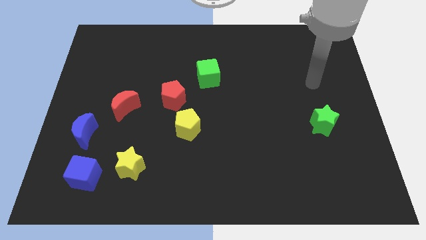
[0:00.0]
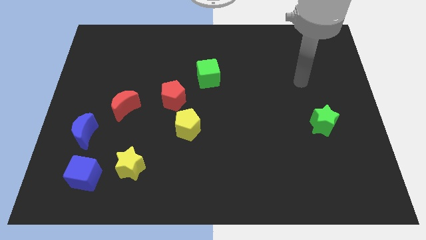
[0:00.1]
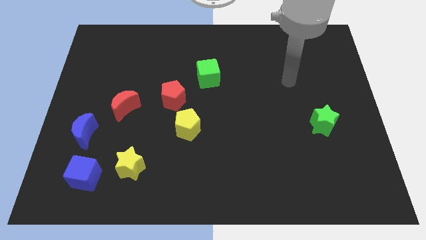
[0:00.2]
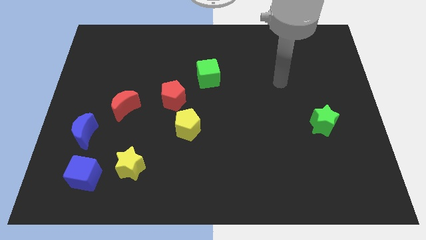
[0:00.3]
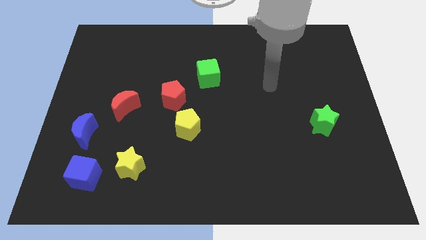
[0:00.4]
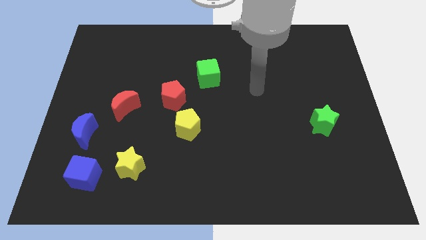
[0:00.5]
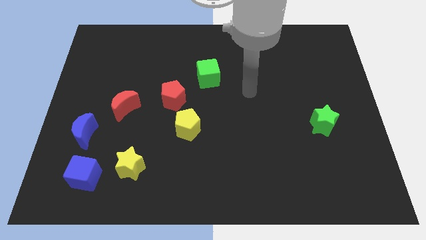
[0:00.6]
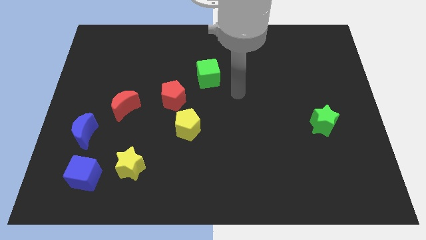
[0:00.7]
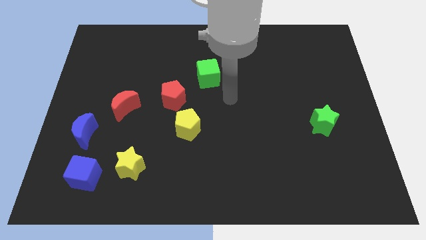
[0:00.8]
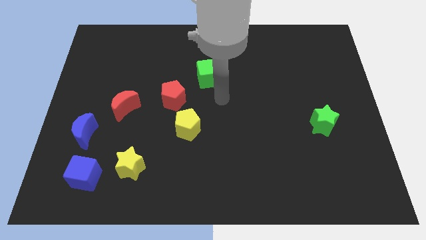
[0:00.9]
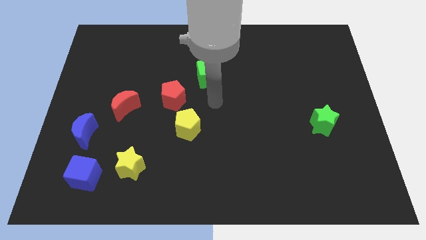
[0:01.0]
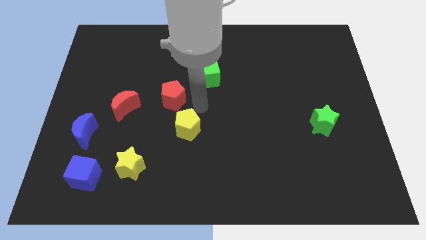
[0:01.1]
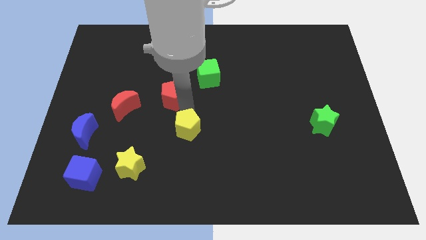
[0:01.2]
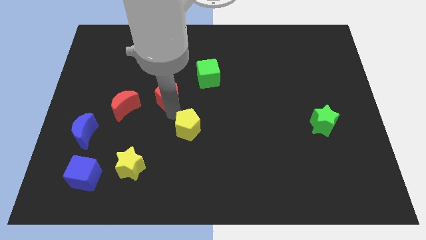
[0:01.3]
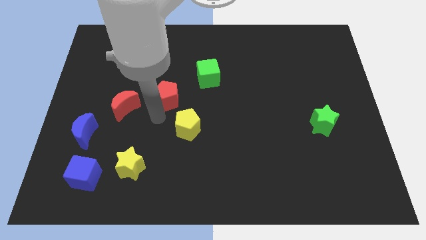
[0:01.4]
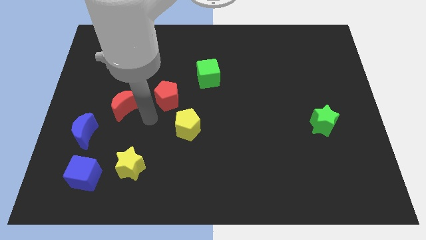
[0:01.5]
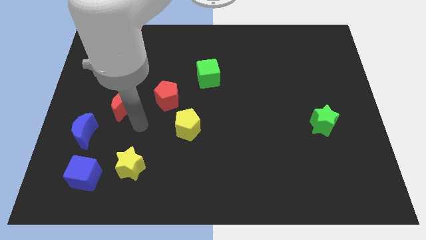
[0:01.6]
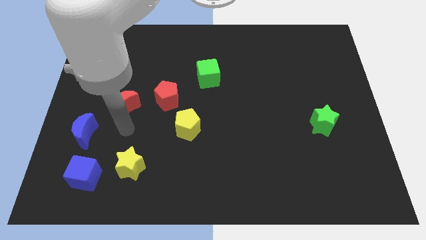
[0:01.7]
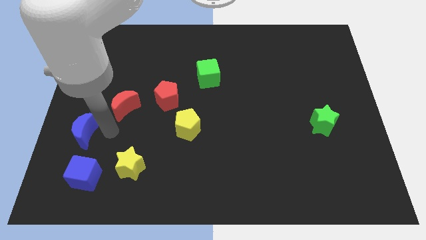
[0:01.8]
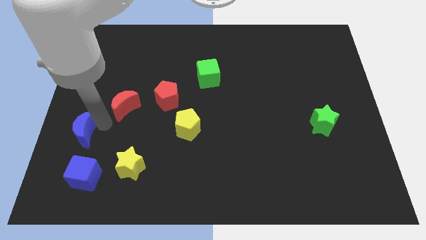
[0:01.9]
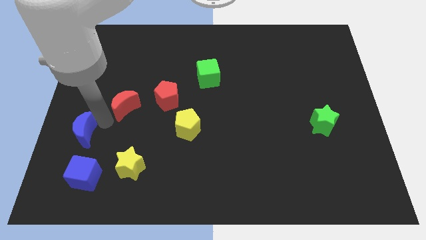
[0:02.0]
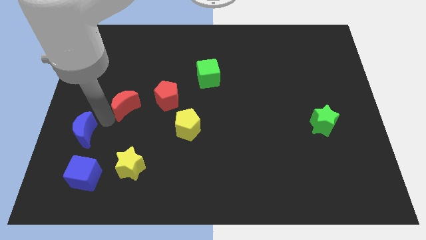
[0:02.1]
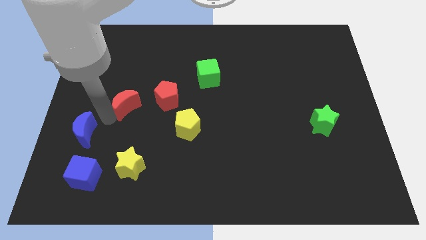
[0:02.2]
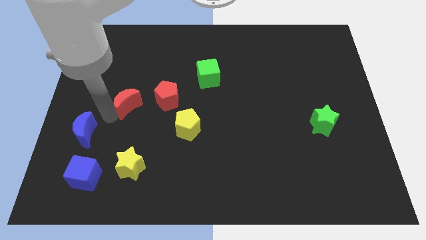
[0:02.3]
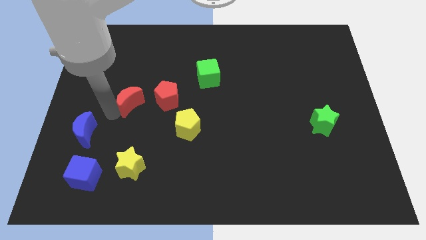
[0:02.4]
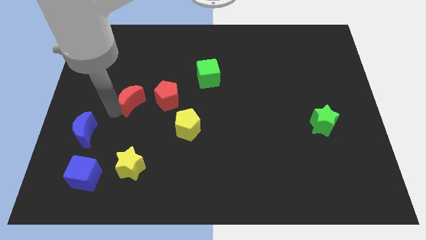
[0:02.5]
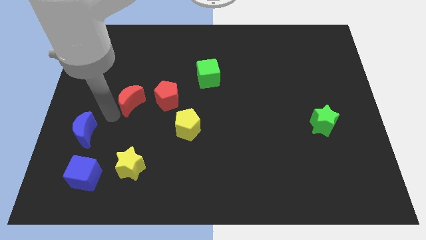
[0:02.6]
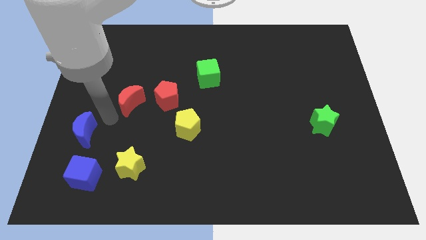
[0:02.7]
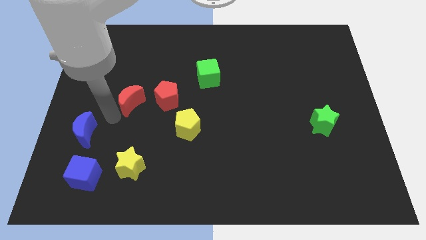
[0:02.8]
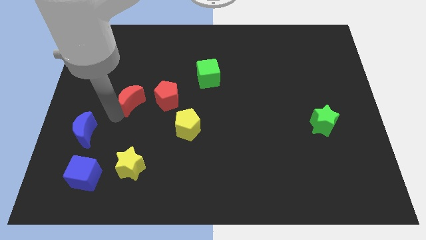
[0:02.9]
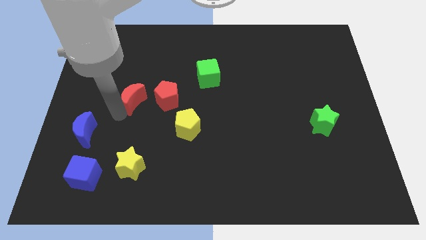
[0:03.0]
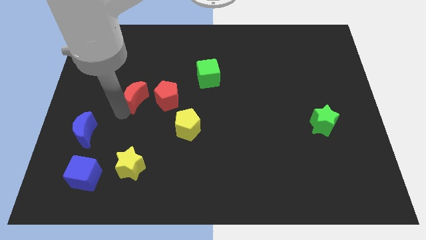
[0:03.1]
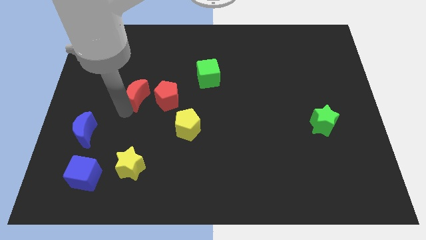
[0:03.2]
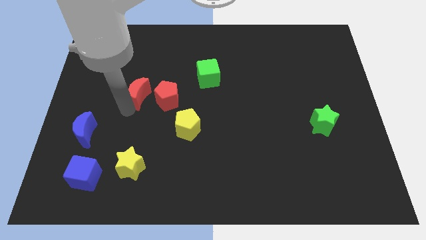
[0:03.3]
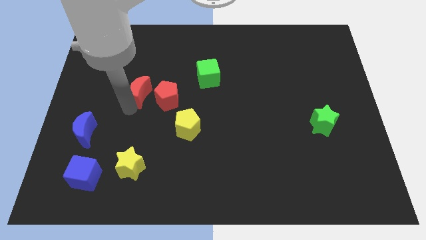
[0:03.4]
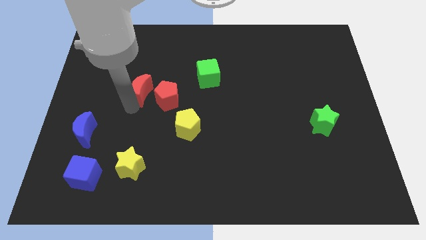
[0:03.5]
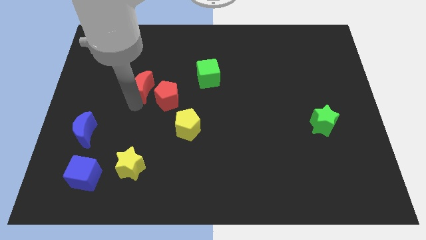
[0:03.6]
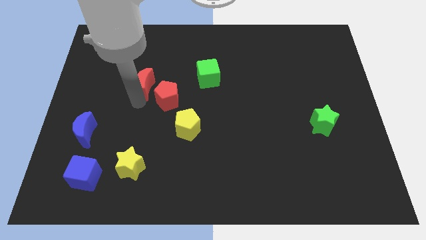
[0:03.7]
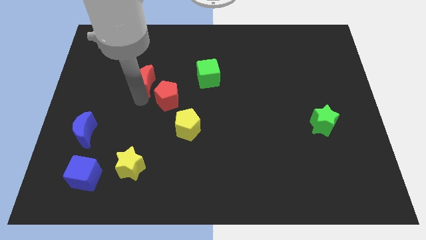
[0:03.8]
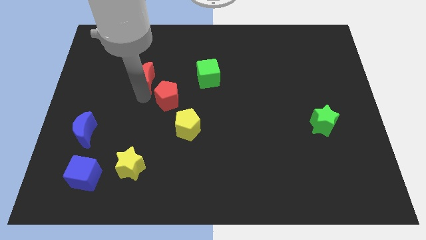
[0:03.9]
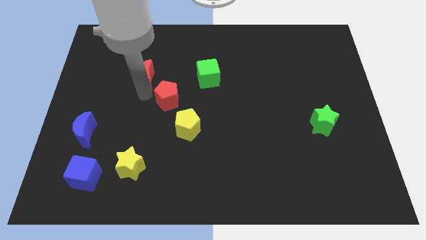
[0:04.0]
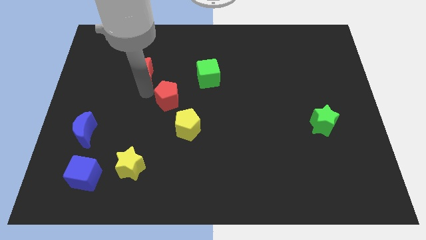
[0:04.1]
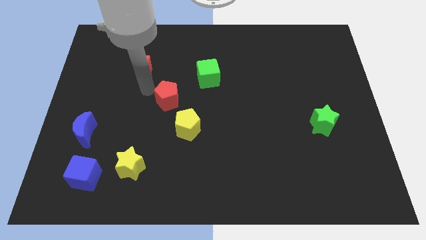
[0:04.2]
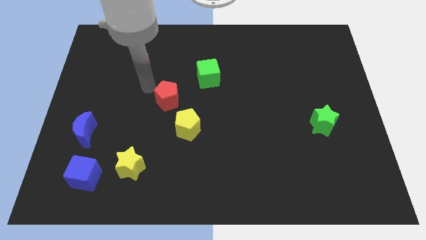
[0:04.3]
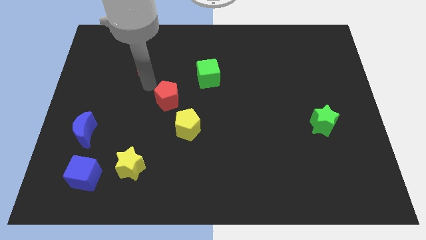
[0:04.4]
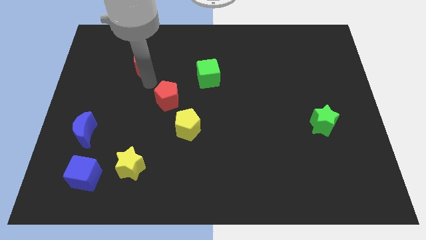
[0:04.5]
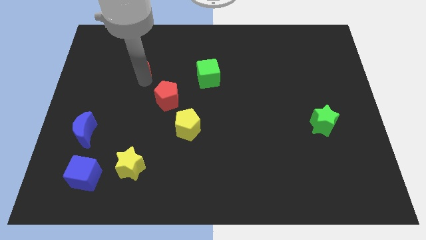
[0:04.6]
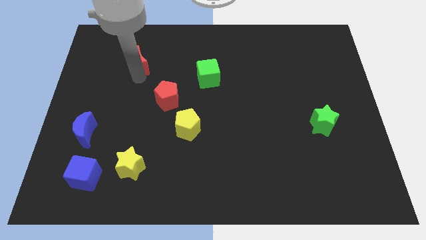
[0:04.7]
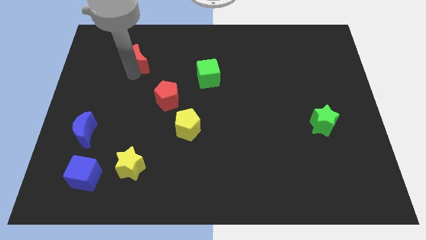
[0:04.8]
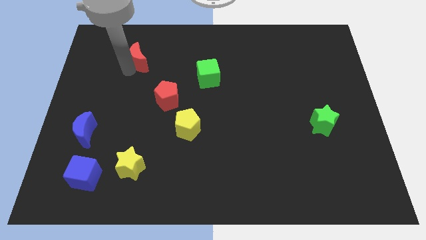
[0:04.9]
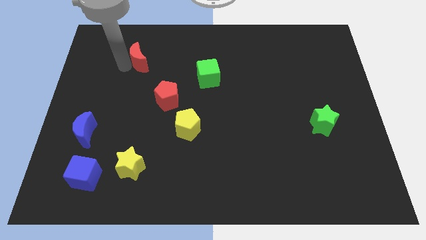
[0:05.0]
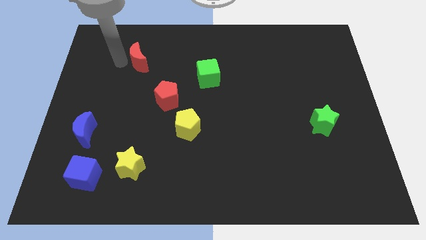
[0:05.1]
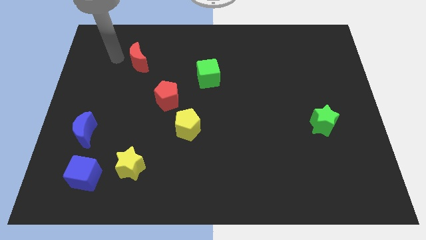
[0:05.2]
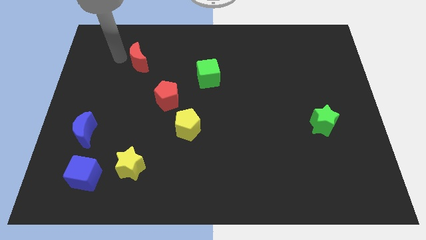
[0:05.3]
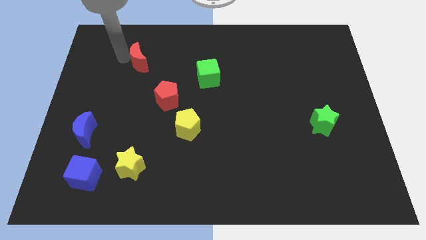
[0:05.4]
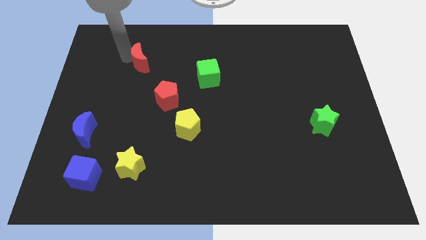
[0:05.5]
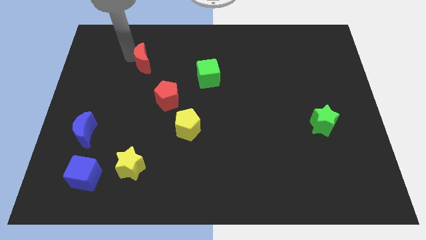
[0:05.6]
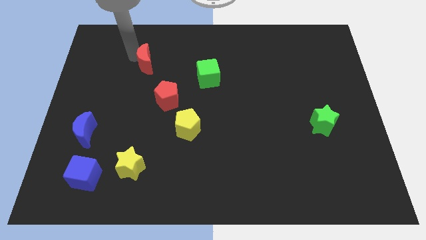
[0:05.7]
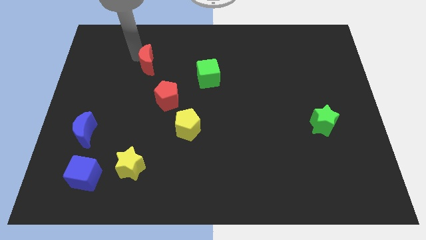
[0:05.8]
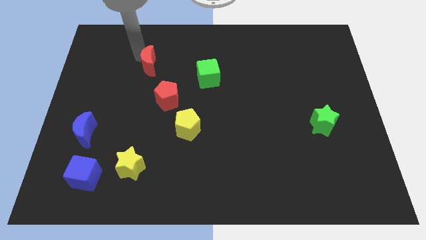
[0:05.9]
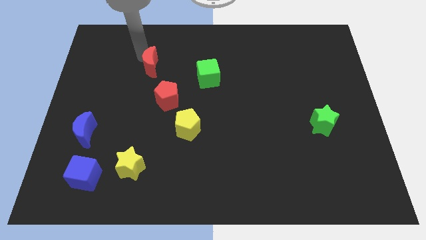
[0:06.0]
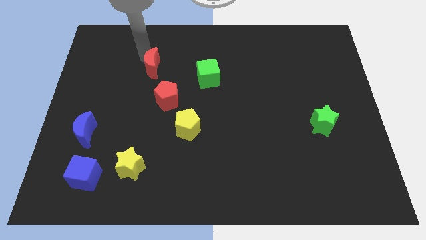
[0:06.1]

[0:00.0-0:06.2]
move the red moon above the red pentagon

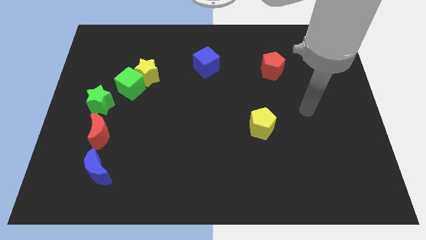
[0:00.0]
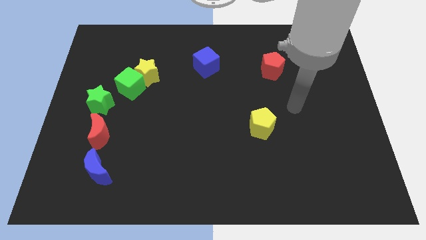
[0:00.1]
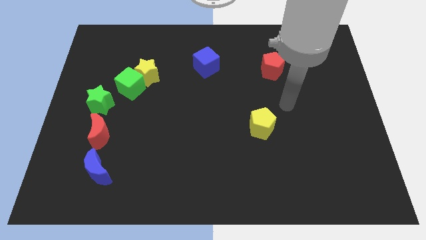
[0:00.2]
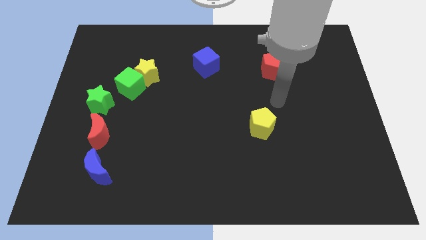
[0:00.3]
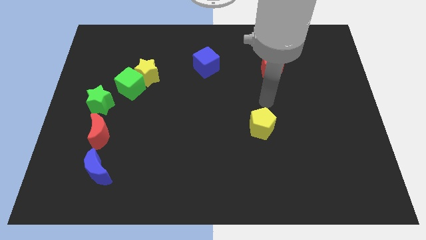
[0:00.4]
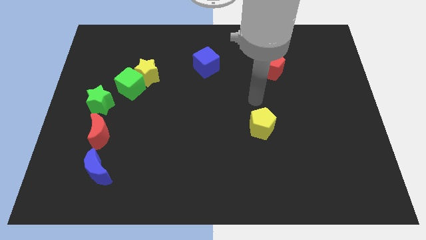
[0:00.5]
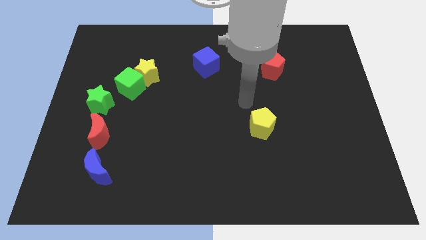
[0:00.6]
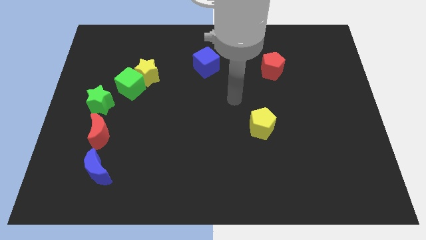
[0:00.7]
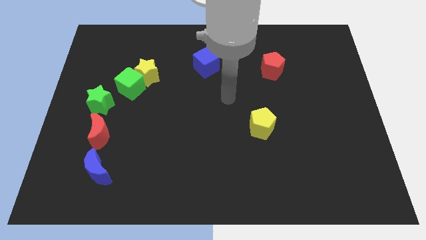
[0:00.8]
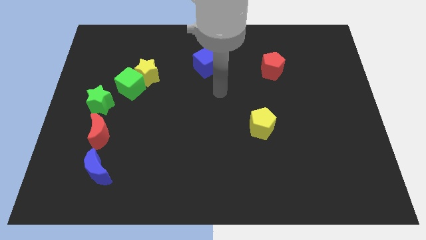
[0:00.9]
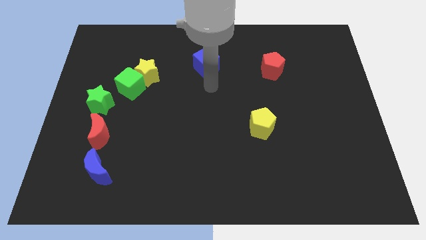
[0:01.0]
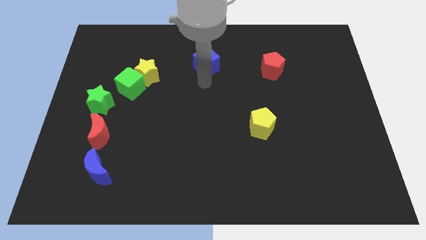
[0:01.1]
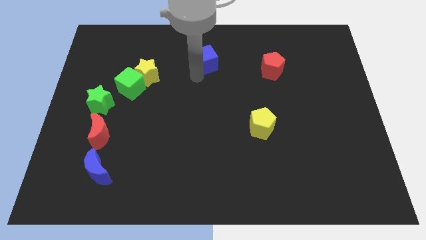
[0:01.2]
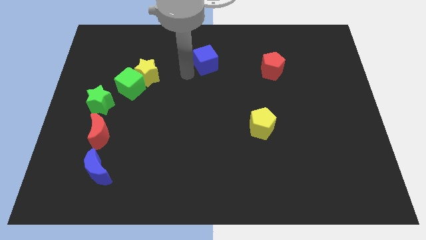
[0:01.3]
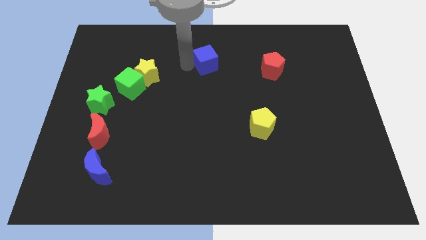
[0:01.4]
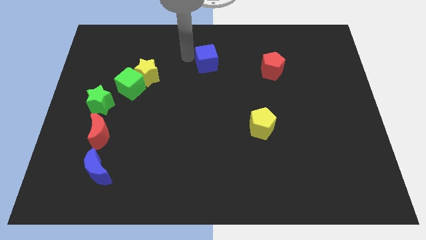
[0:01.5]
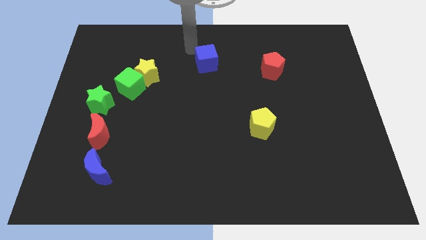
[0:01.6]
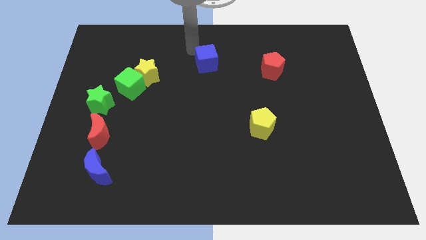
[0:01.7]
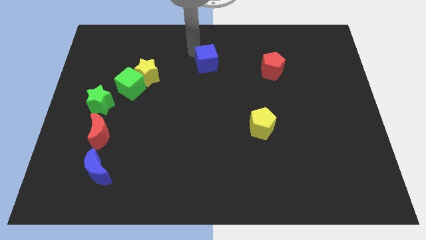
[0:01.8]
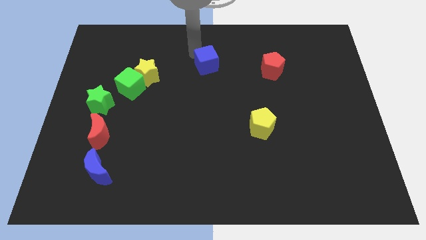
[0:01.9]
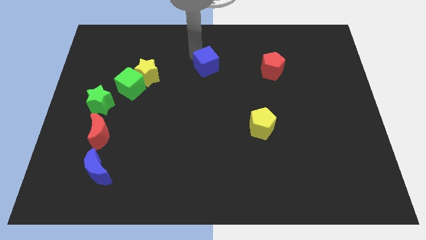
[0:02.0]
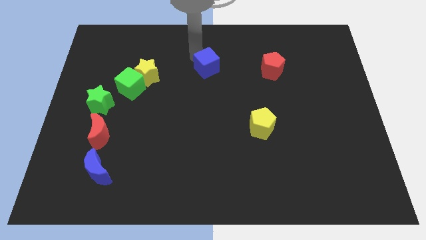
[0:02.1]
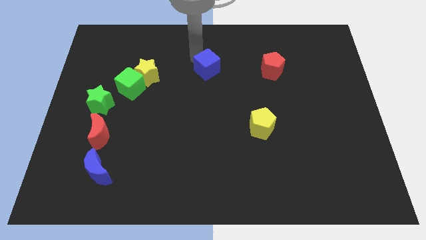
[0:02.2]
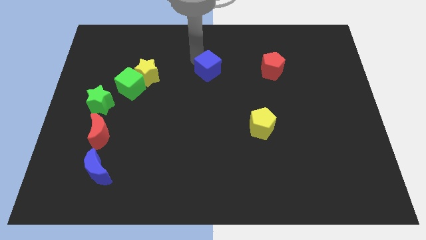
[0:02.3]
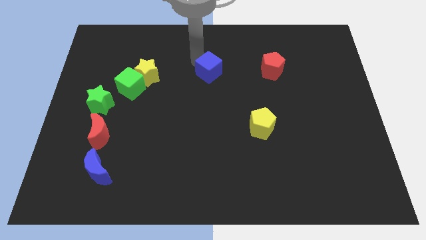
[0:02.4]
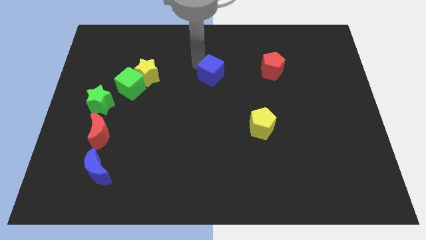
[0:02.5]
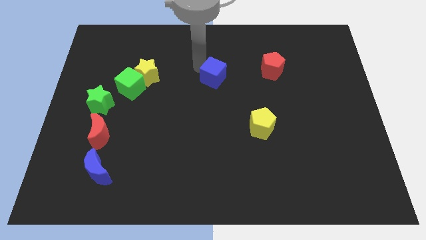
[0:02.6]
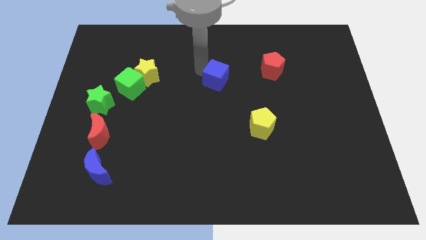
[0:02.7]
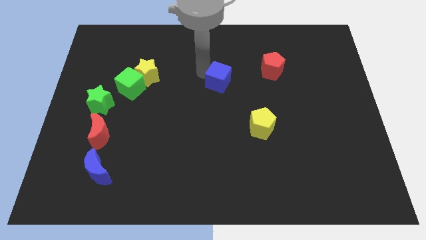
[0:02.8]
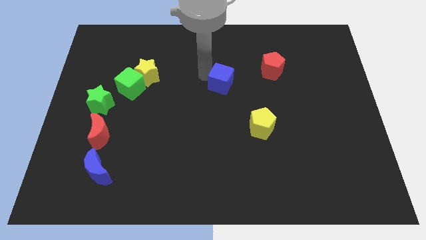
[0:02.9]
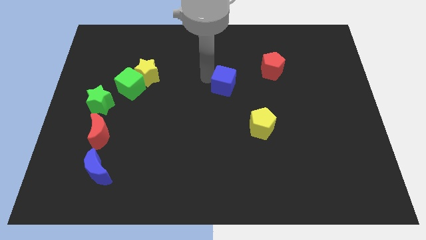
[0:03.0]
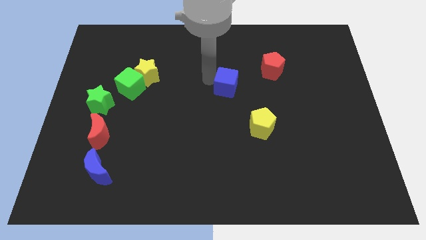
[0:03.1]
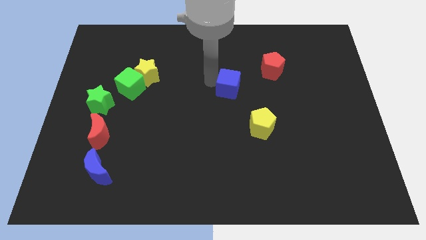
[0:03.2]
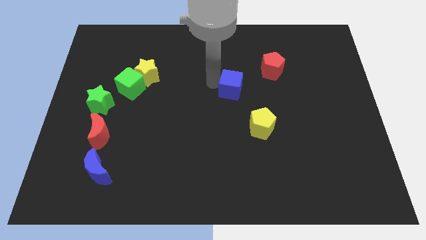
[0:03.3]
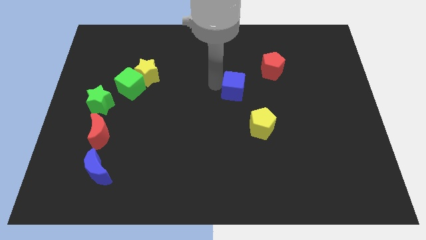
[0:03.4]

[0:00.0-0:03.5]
put the blue cube to the bottom left side of the red pentagon
